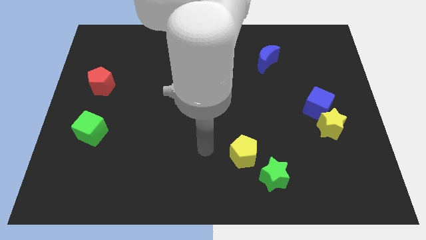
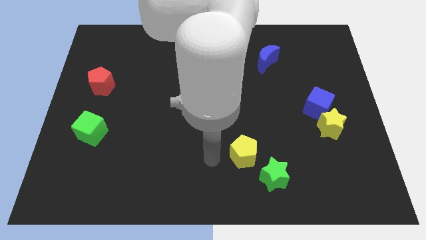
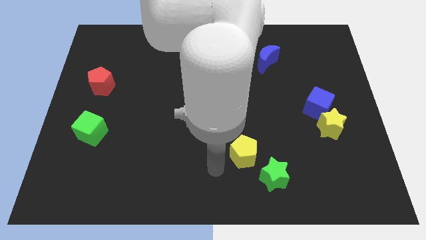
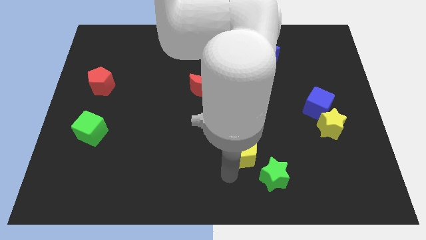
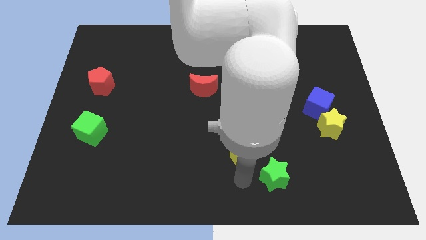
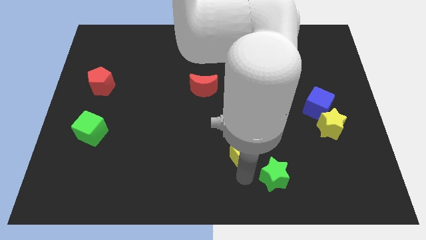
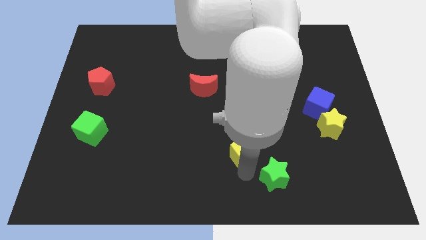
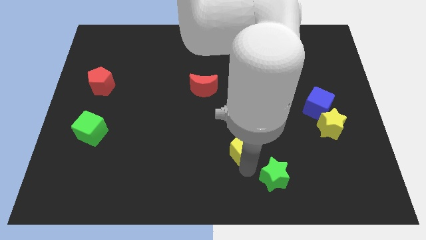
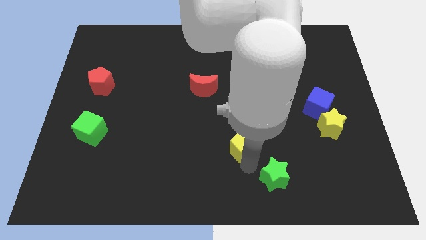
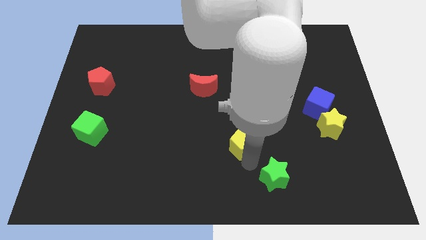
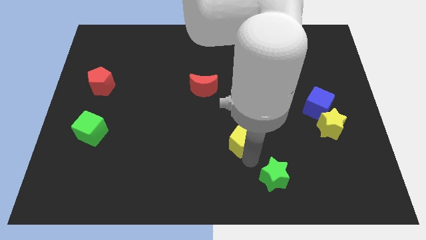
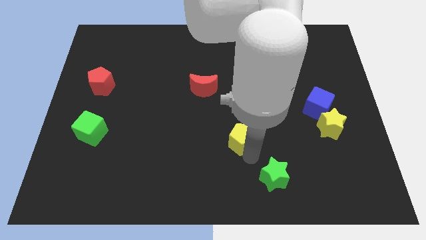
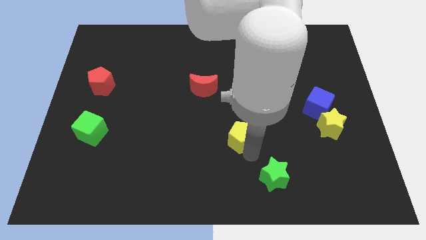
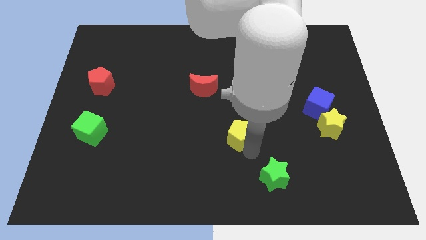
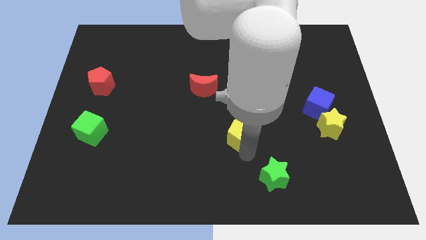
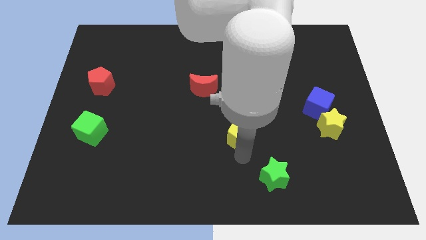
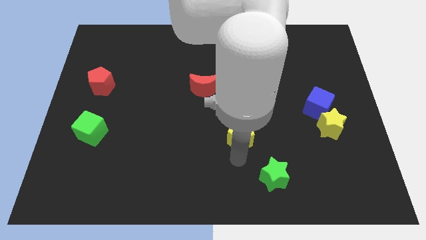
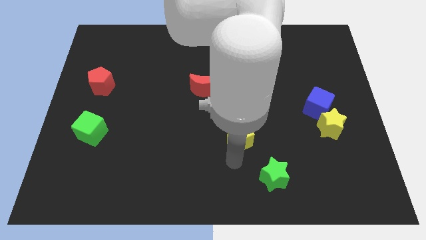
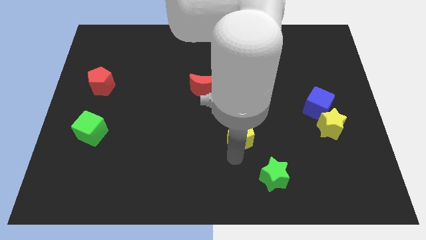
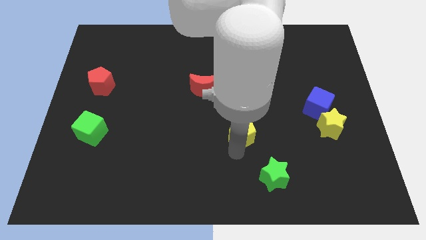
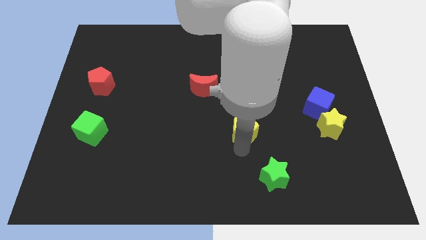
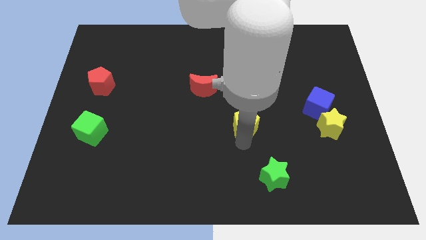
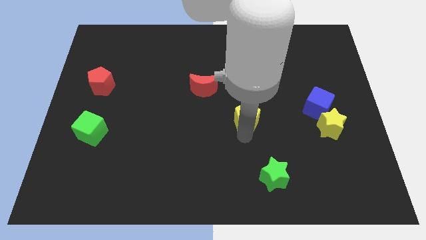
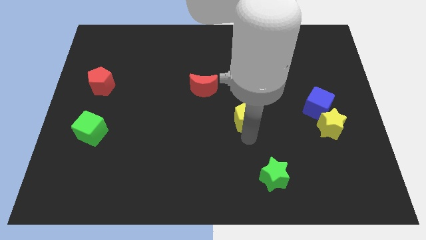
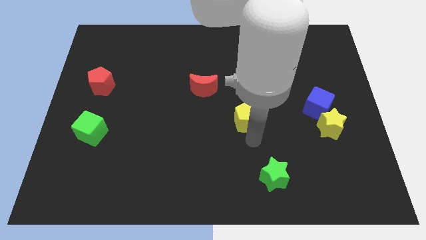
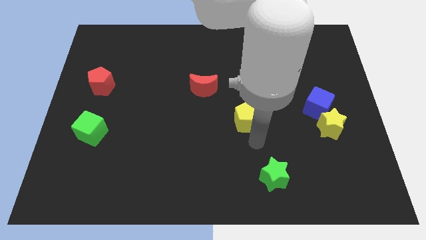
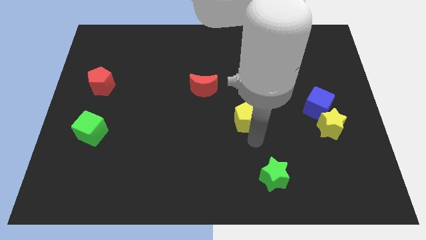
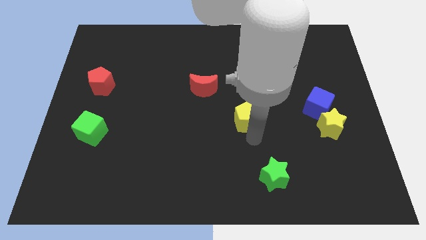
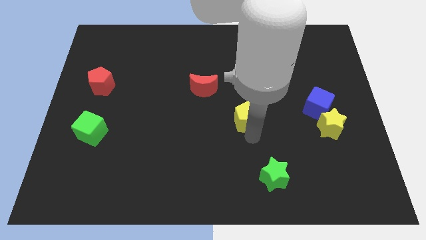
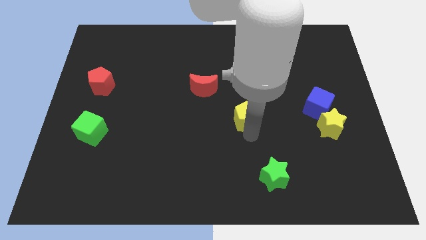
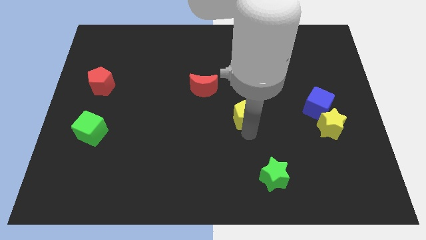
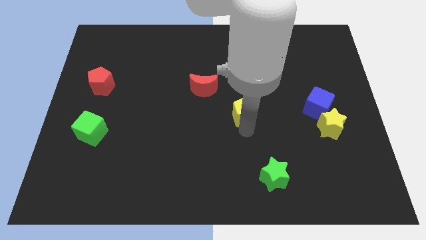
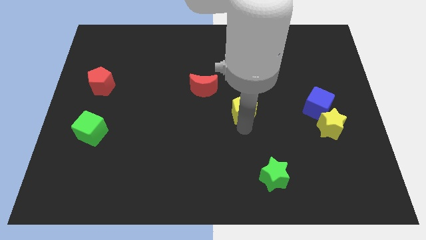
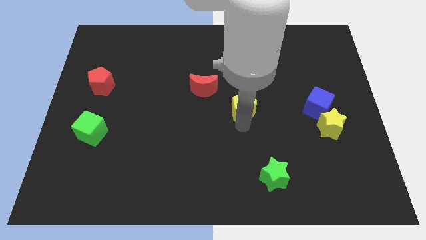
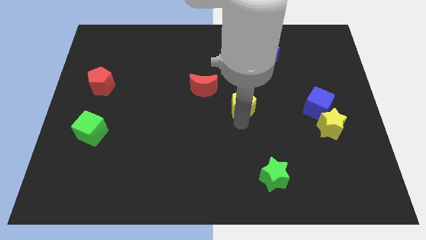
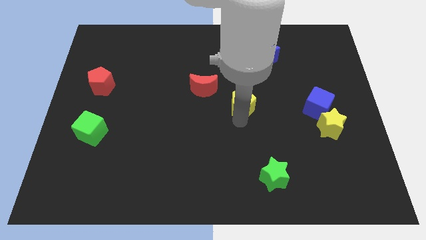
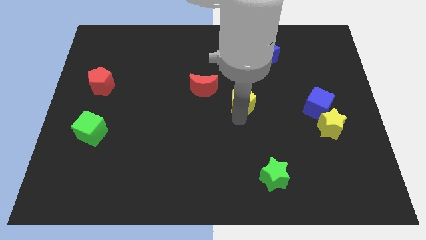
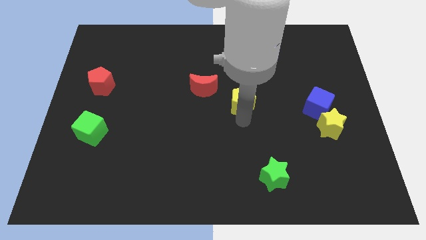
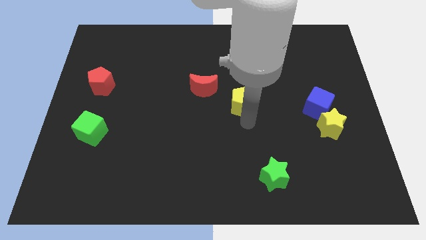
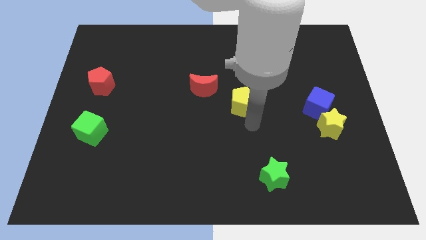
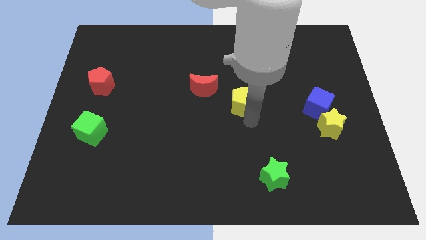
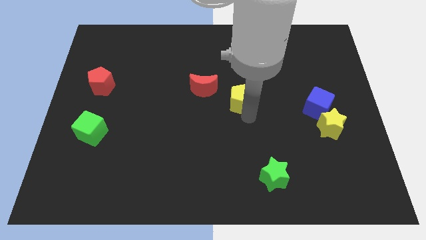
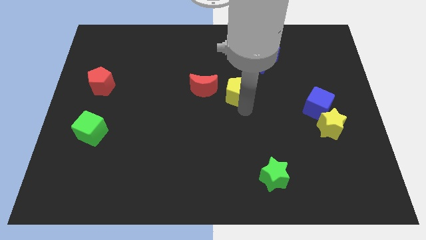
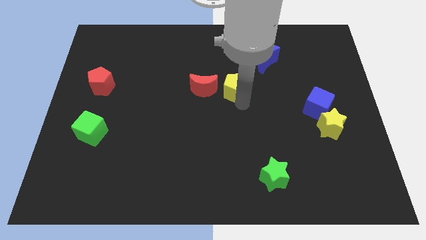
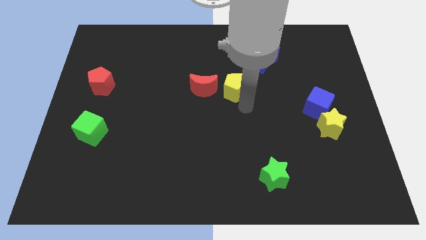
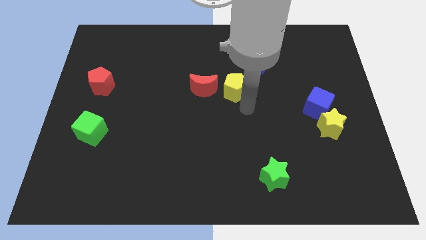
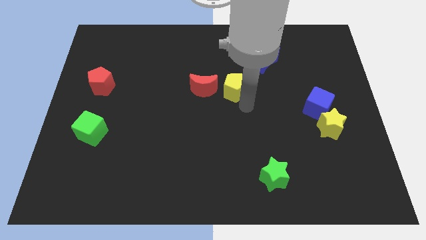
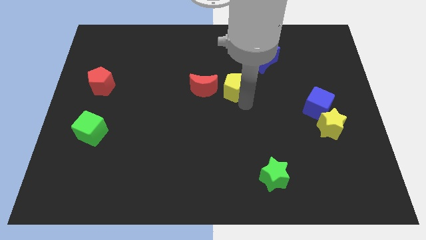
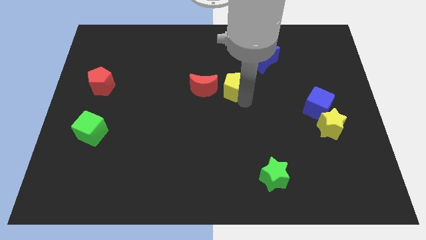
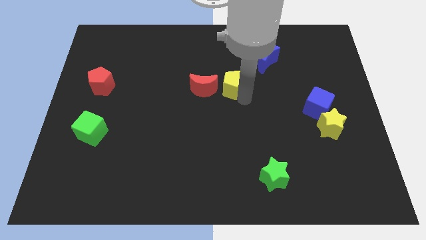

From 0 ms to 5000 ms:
push the yellow pentagon to the top right side of the red moon

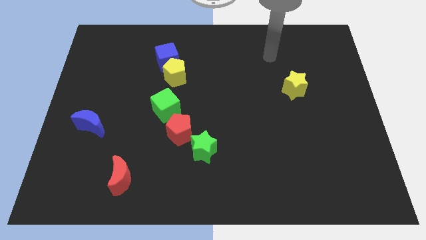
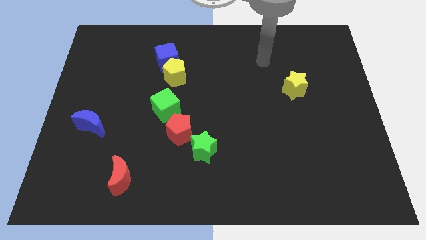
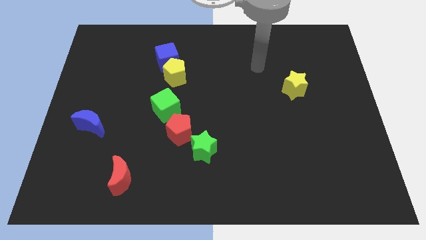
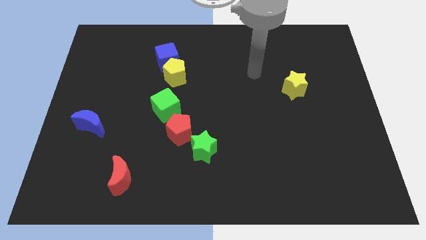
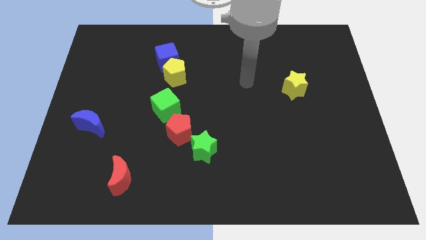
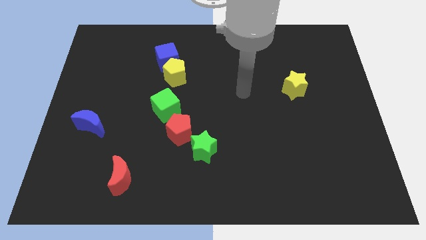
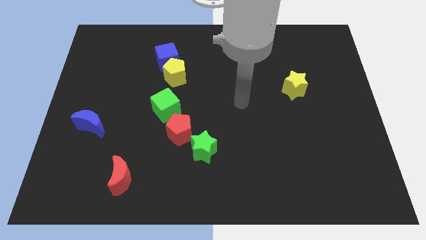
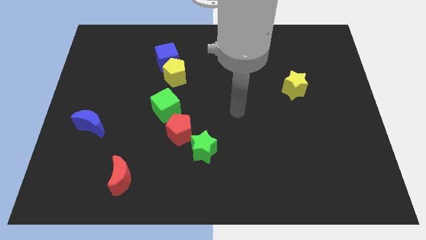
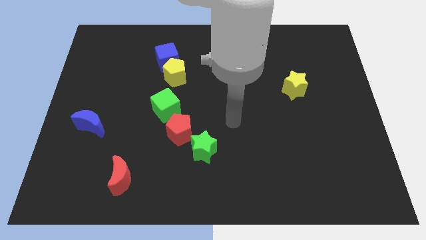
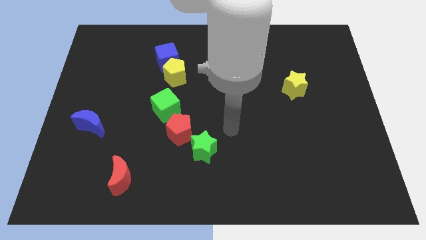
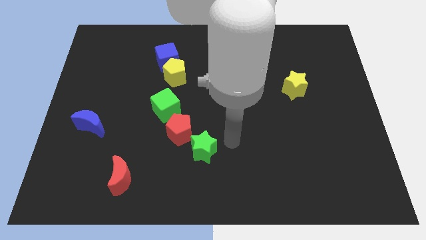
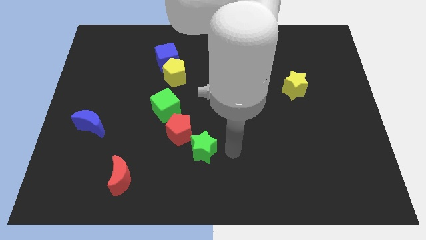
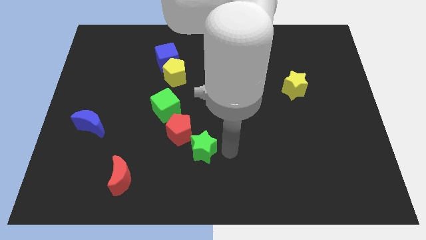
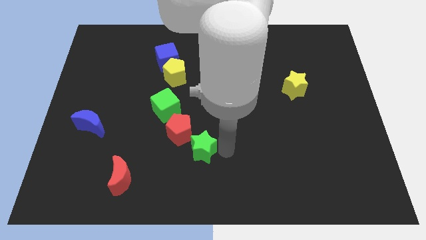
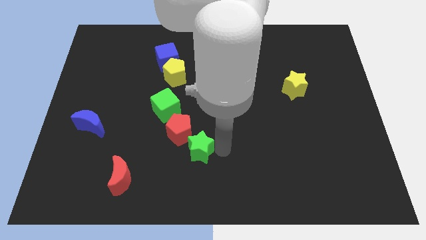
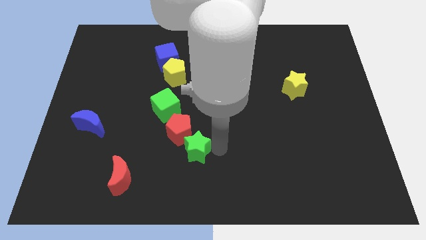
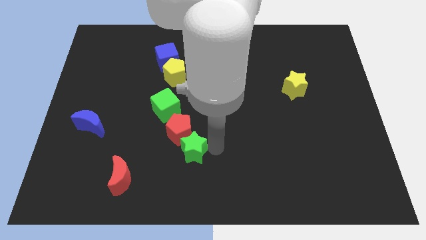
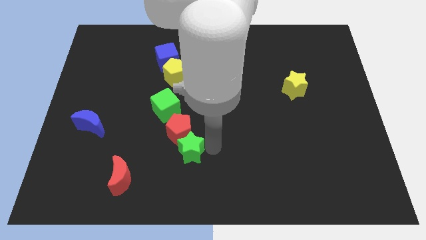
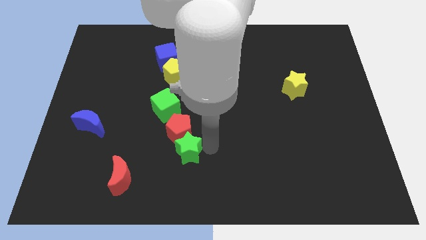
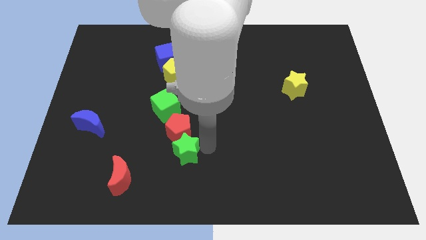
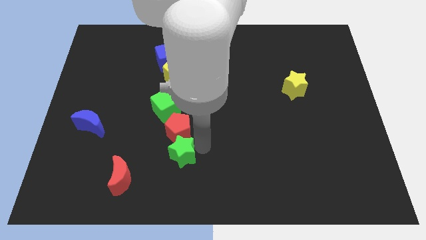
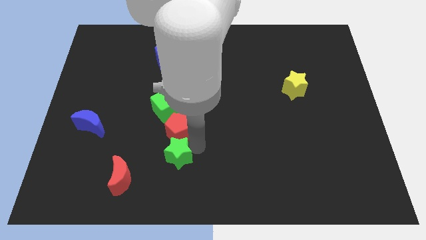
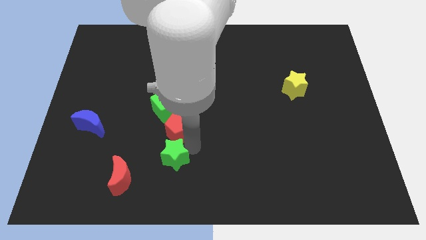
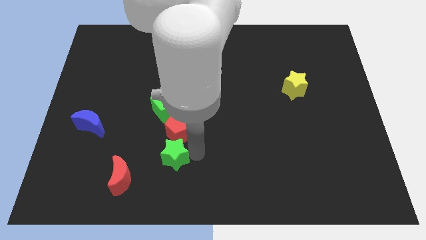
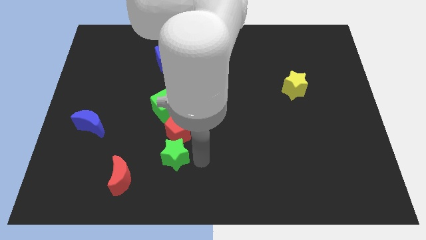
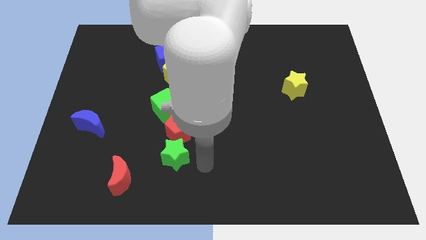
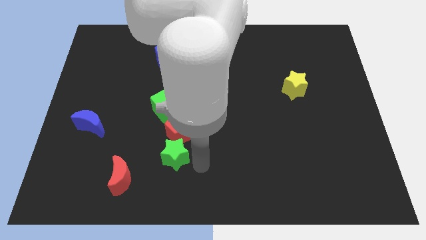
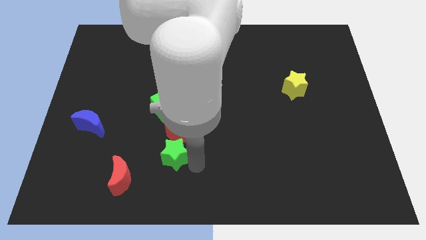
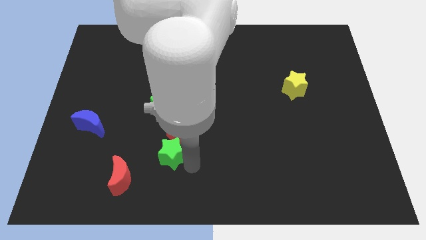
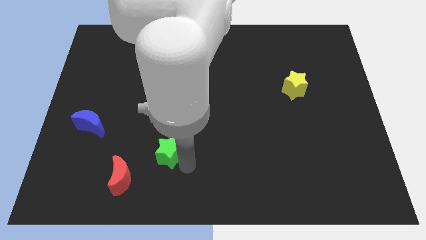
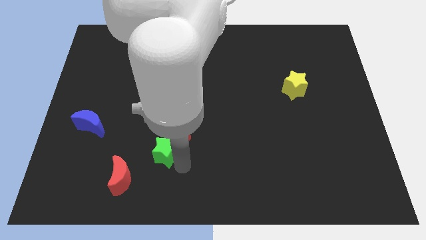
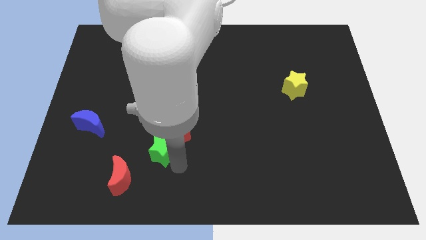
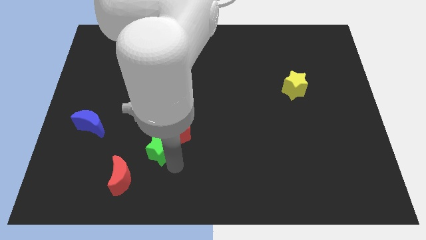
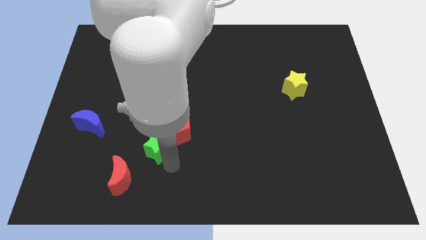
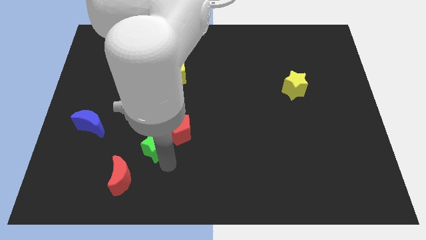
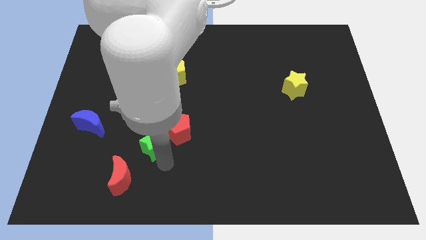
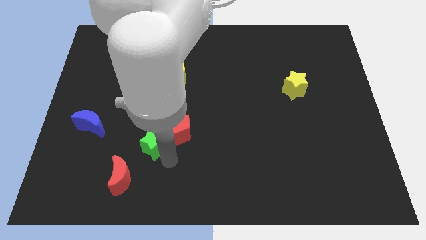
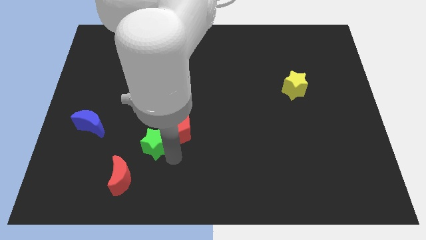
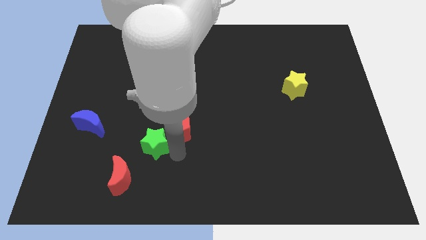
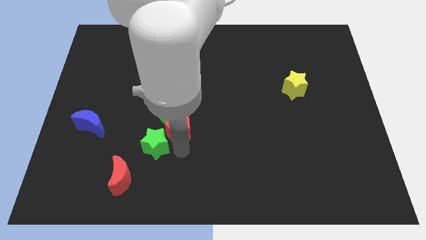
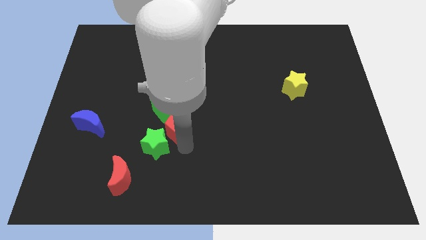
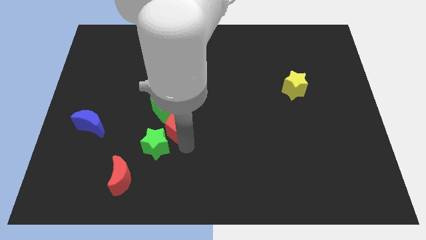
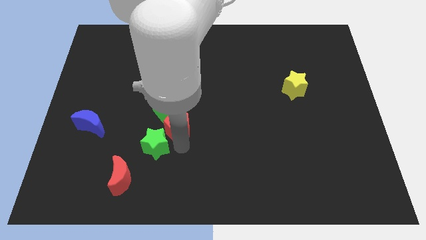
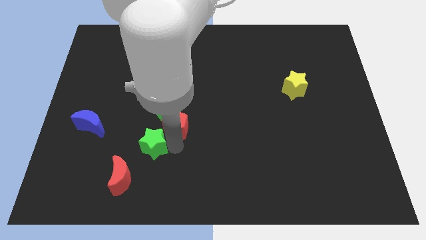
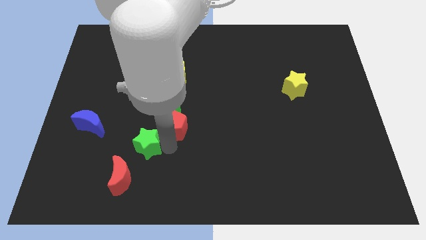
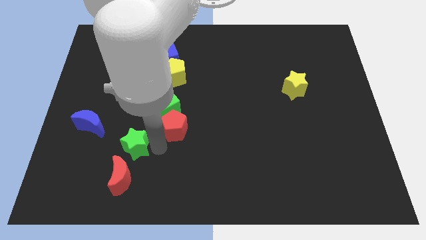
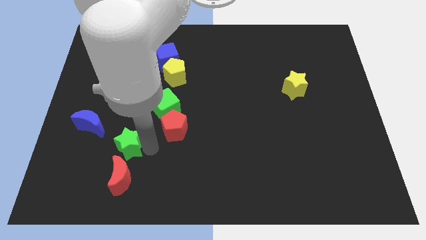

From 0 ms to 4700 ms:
put the green star to the bottom right of the blue moon
